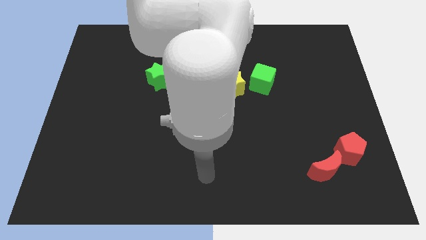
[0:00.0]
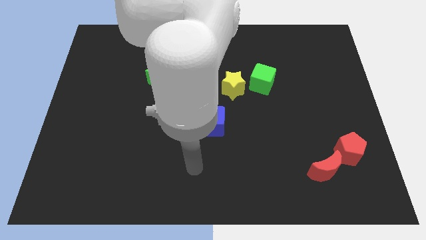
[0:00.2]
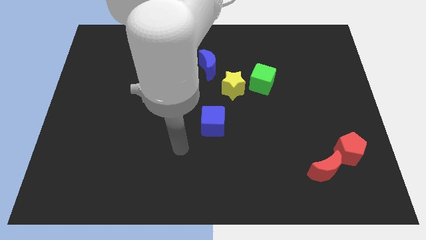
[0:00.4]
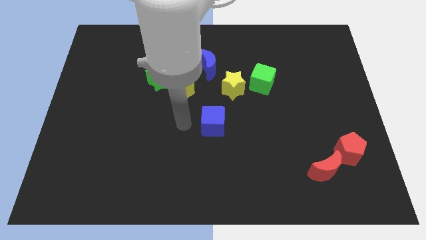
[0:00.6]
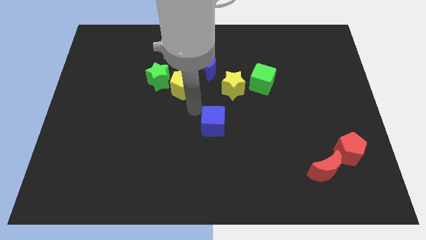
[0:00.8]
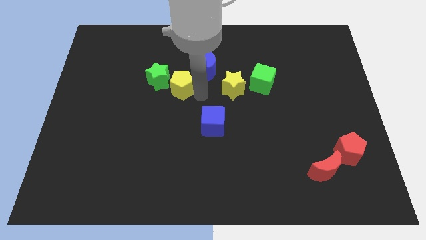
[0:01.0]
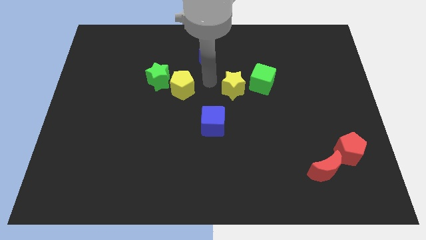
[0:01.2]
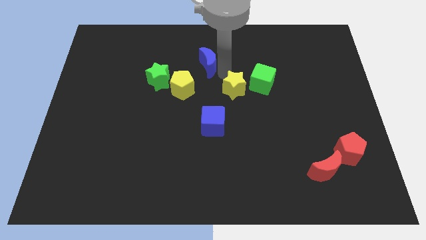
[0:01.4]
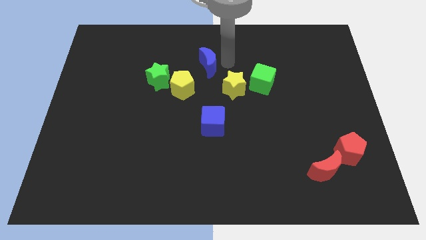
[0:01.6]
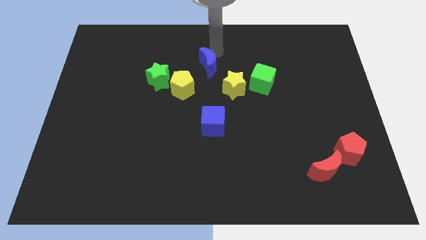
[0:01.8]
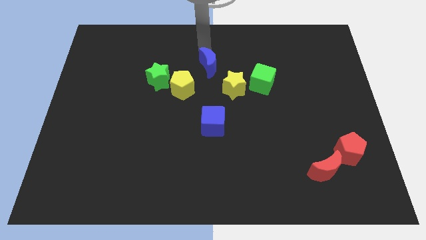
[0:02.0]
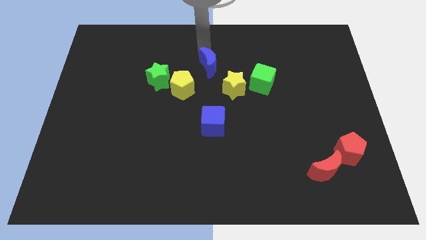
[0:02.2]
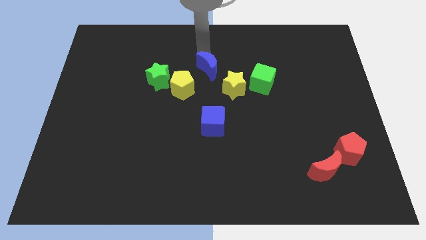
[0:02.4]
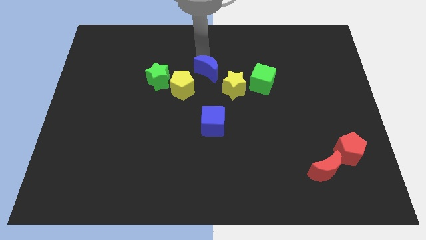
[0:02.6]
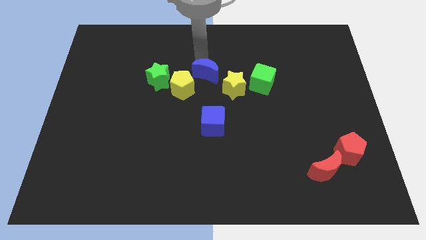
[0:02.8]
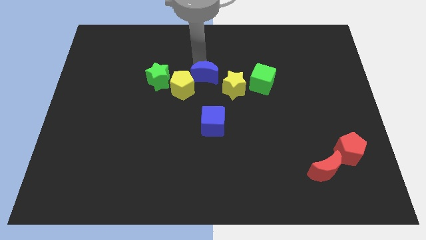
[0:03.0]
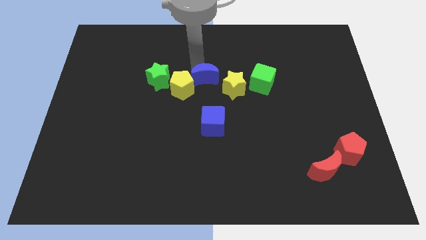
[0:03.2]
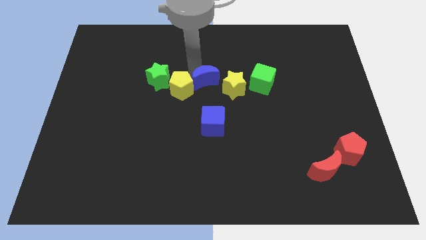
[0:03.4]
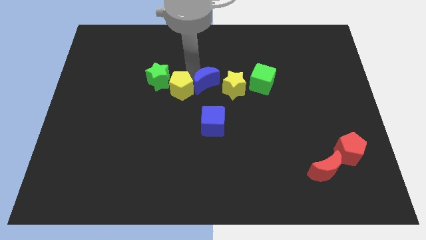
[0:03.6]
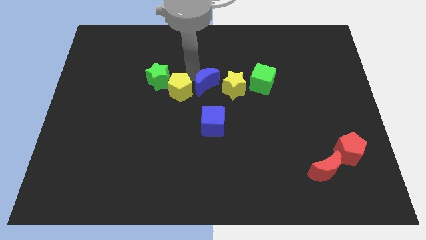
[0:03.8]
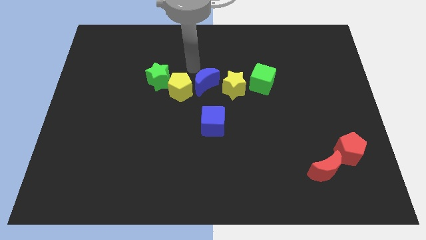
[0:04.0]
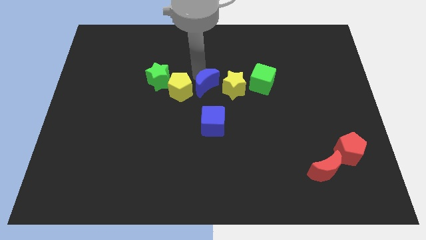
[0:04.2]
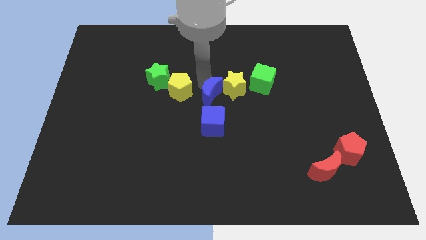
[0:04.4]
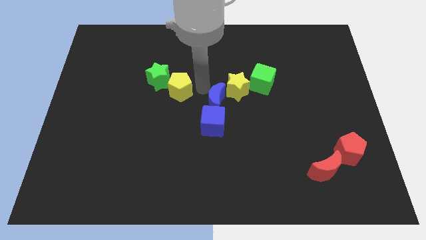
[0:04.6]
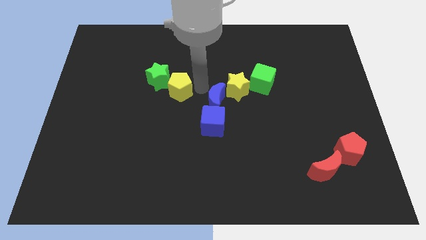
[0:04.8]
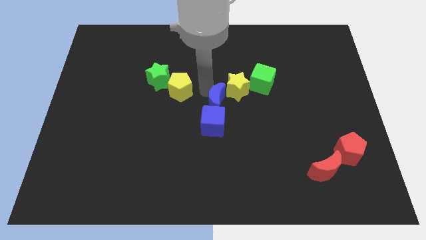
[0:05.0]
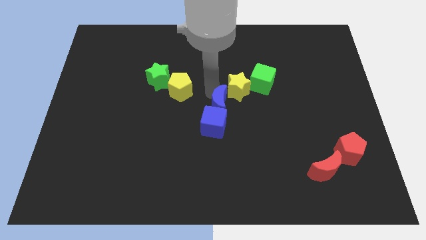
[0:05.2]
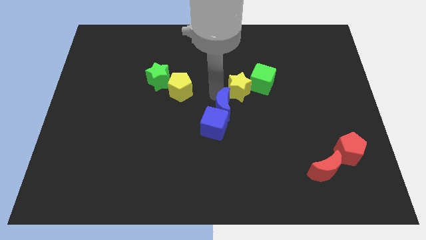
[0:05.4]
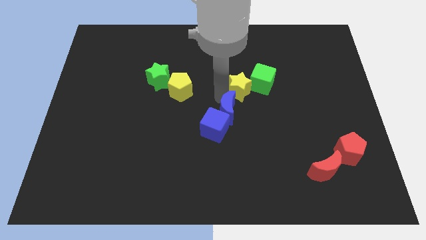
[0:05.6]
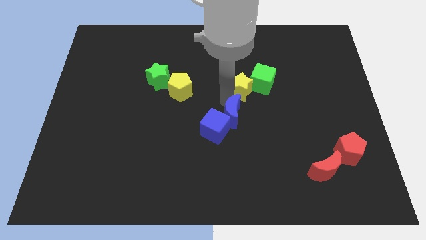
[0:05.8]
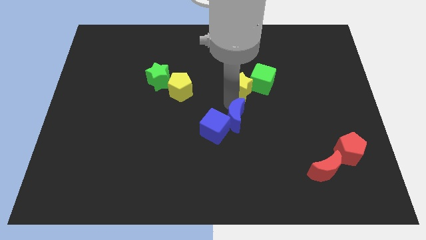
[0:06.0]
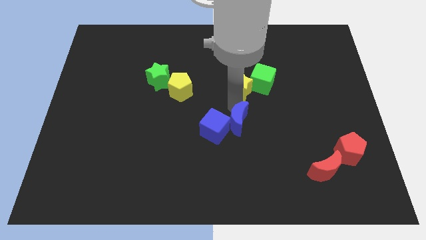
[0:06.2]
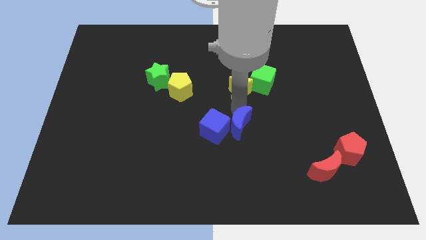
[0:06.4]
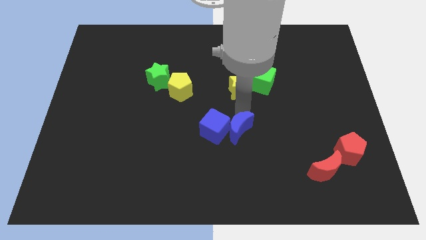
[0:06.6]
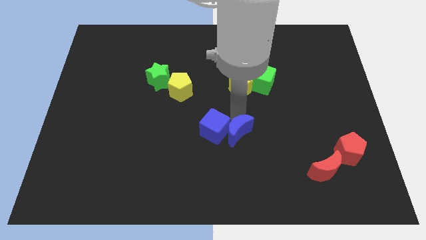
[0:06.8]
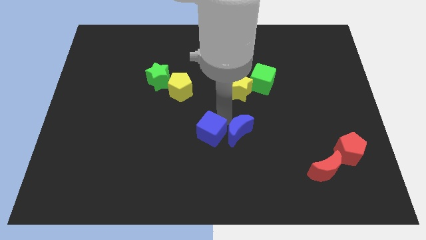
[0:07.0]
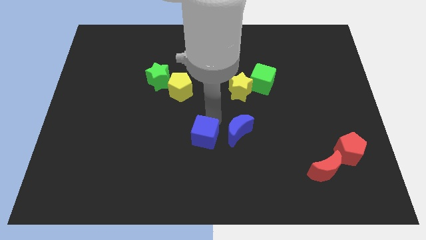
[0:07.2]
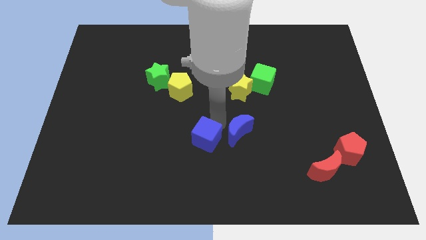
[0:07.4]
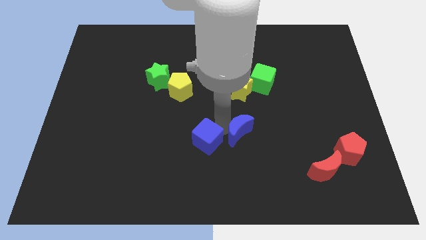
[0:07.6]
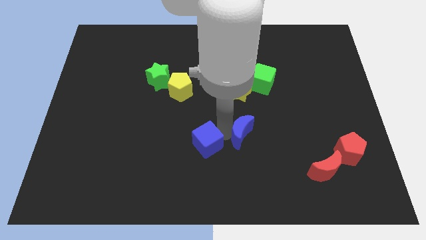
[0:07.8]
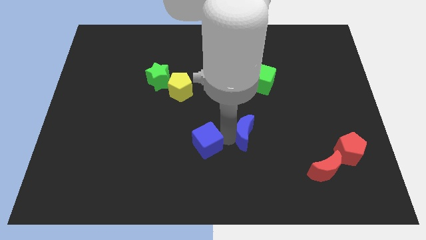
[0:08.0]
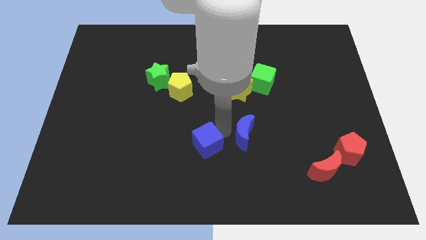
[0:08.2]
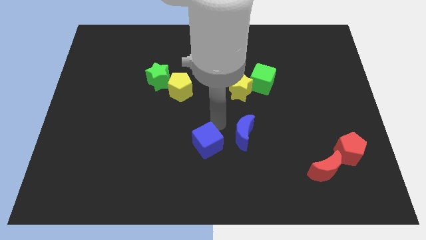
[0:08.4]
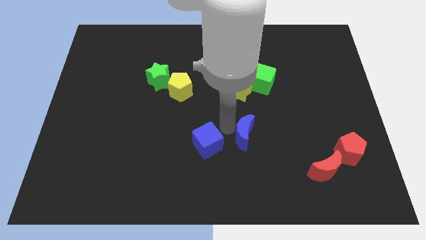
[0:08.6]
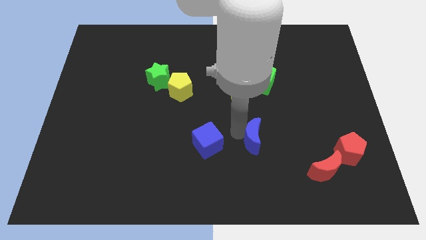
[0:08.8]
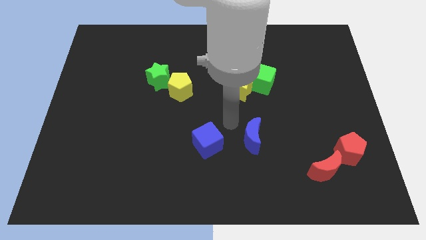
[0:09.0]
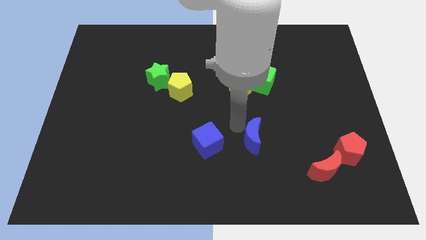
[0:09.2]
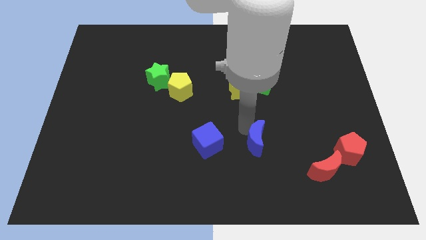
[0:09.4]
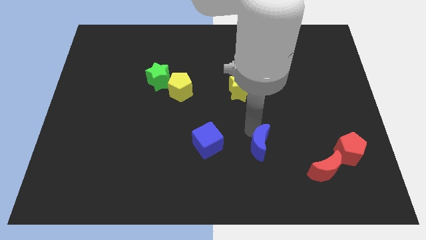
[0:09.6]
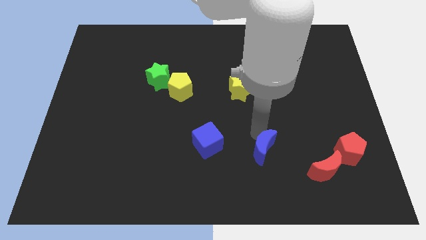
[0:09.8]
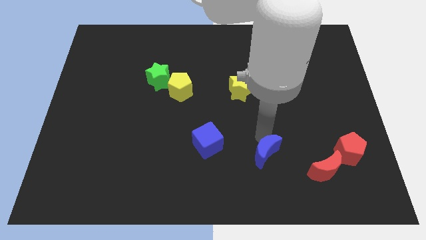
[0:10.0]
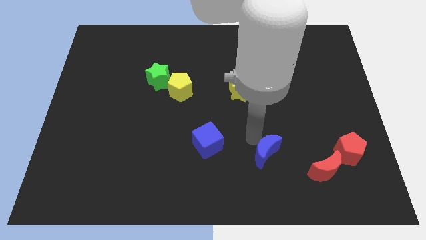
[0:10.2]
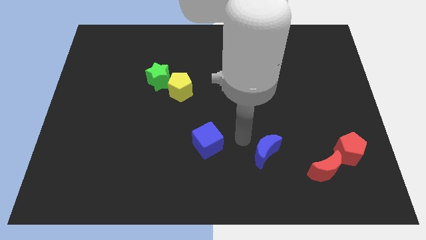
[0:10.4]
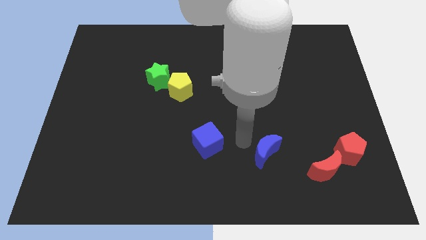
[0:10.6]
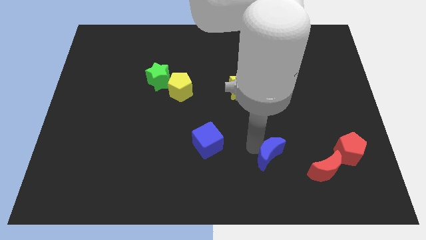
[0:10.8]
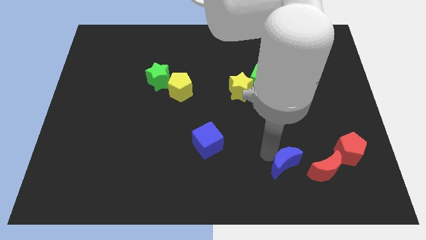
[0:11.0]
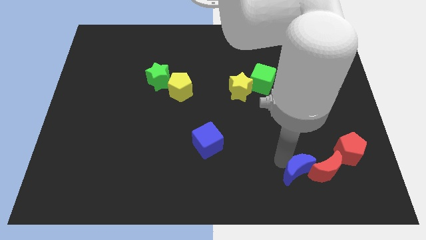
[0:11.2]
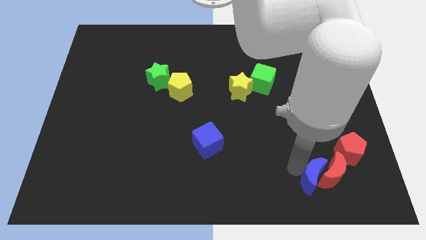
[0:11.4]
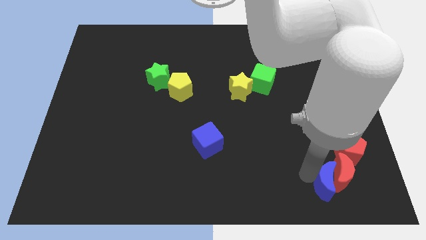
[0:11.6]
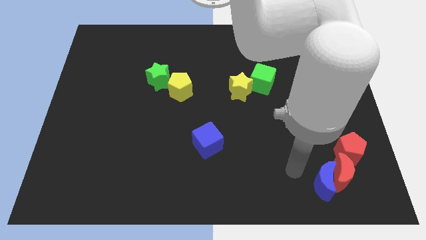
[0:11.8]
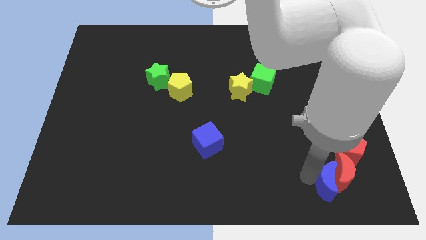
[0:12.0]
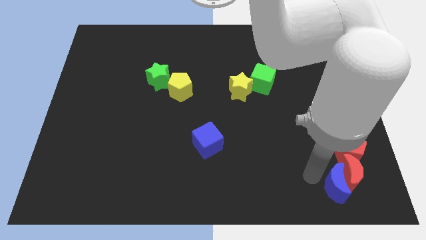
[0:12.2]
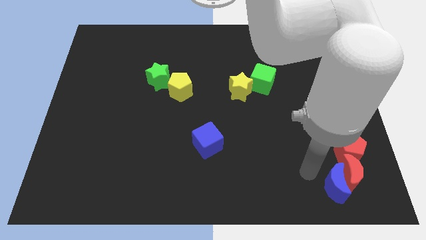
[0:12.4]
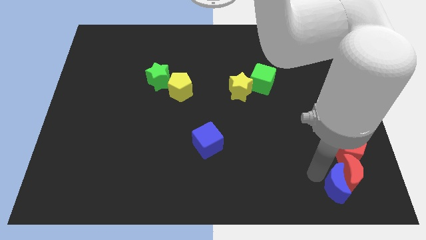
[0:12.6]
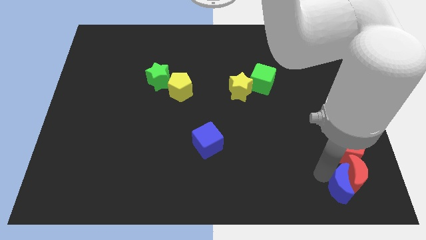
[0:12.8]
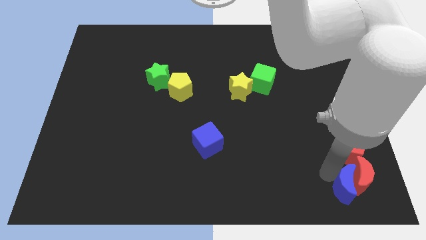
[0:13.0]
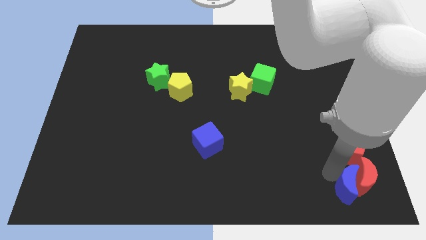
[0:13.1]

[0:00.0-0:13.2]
push the blue moon to the bottom right corner
